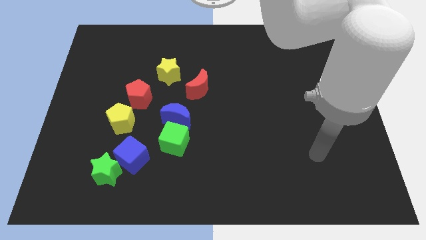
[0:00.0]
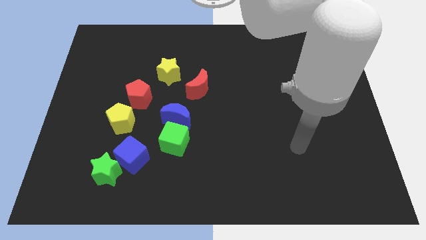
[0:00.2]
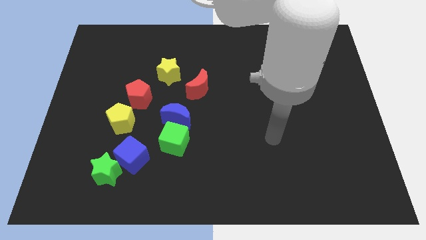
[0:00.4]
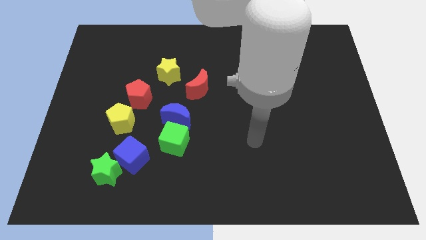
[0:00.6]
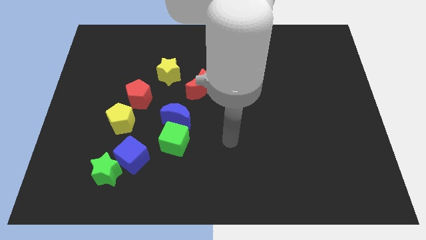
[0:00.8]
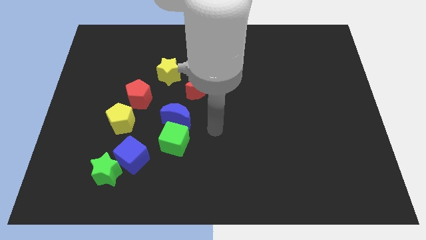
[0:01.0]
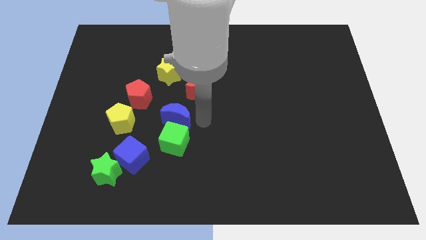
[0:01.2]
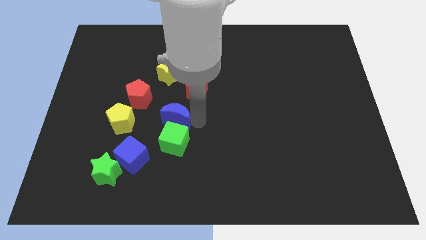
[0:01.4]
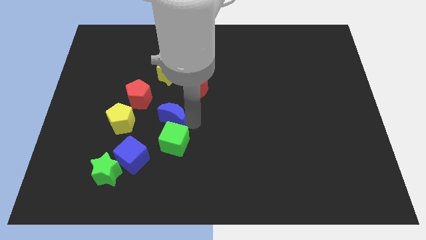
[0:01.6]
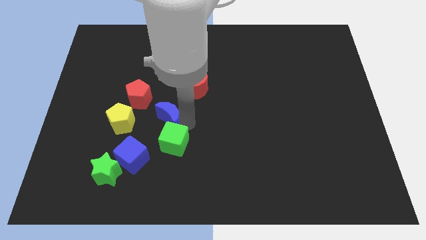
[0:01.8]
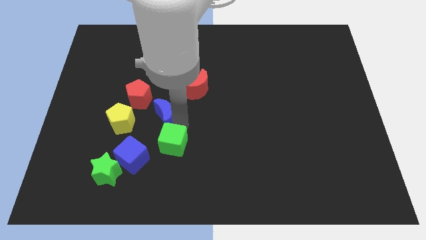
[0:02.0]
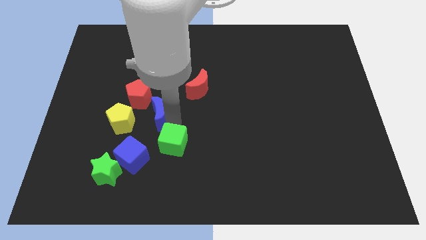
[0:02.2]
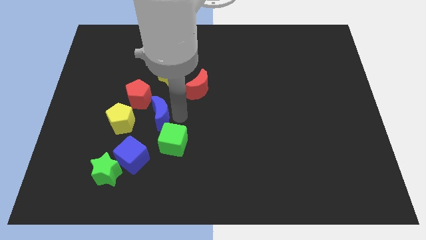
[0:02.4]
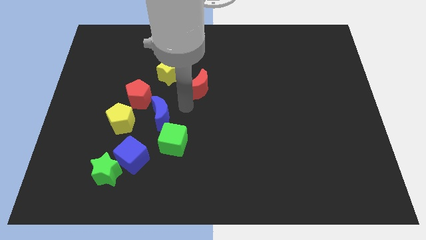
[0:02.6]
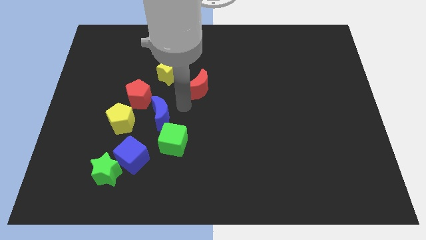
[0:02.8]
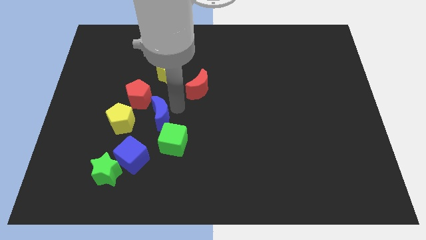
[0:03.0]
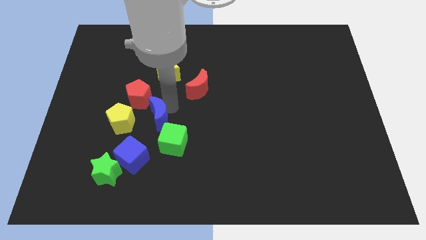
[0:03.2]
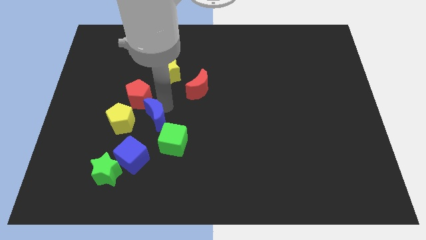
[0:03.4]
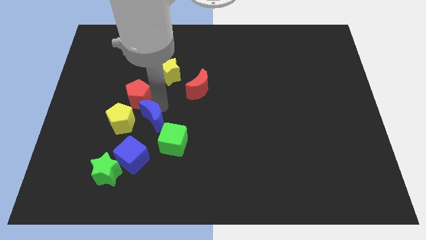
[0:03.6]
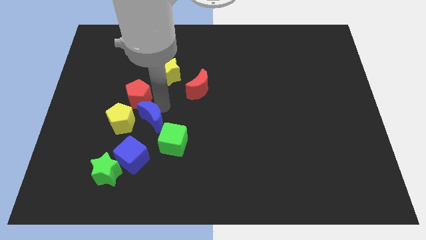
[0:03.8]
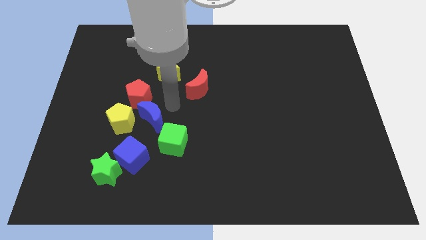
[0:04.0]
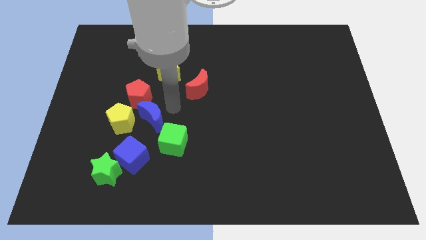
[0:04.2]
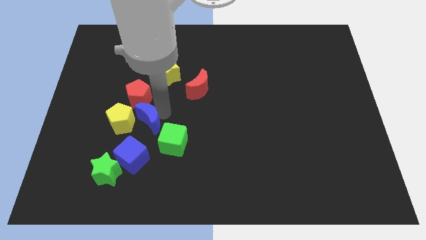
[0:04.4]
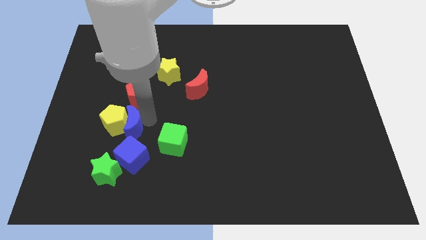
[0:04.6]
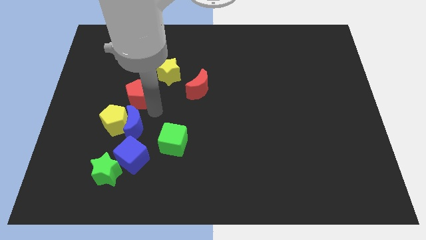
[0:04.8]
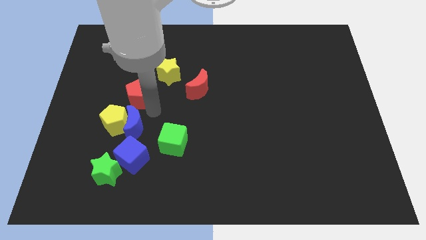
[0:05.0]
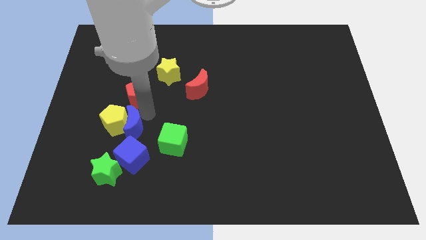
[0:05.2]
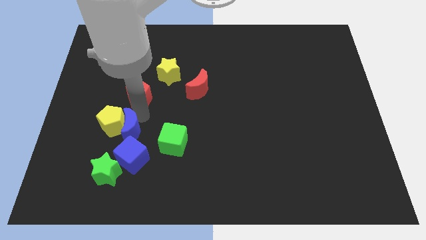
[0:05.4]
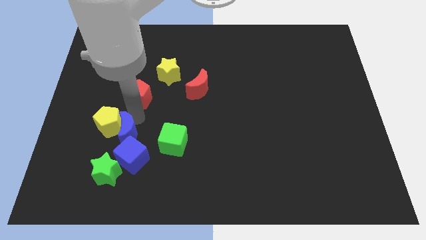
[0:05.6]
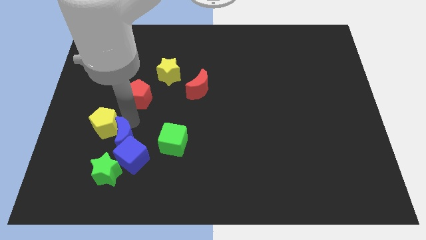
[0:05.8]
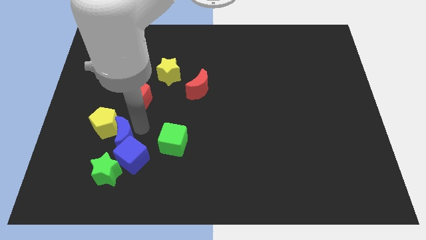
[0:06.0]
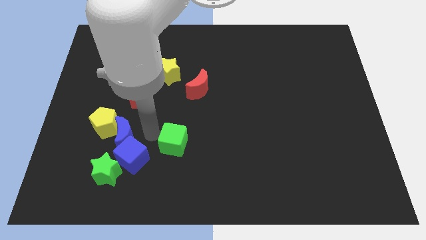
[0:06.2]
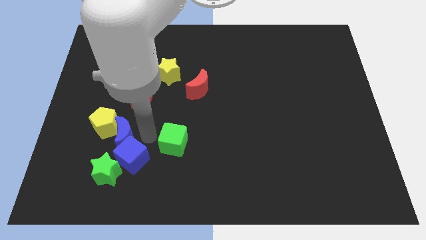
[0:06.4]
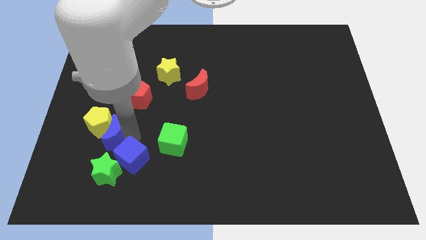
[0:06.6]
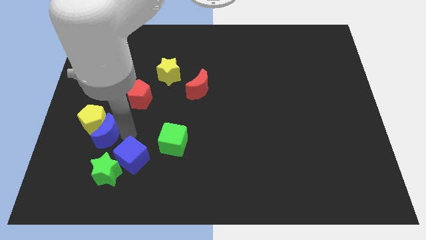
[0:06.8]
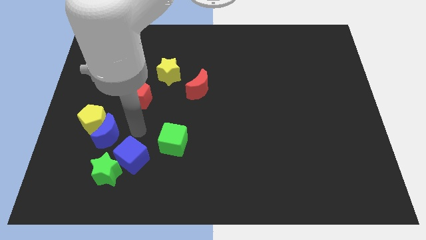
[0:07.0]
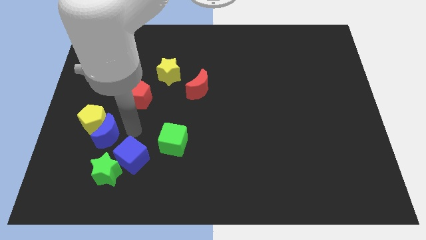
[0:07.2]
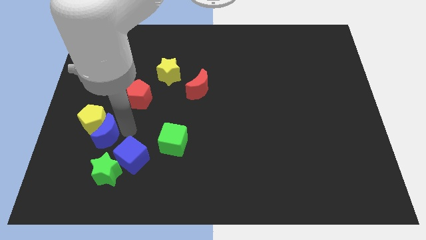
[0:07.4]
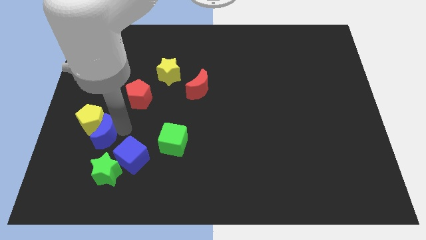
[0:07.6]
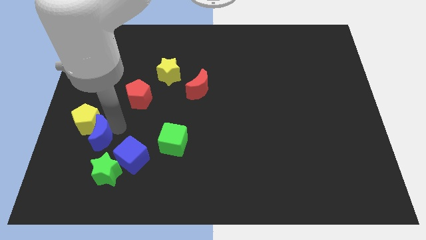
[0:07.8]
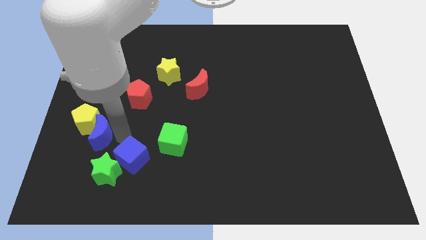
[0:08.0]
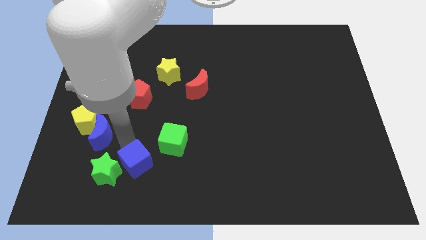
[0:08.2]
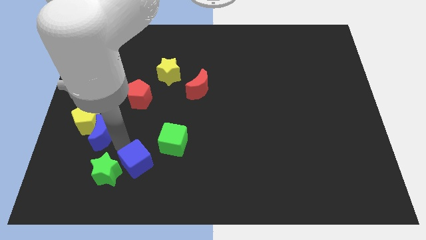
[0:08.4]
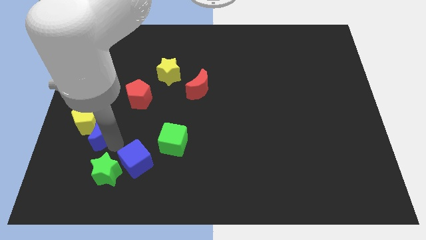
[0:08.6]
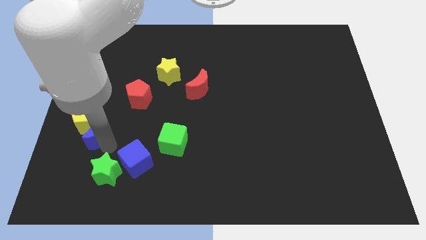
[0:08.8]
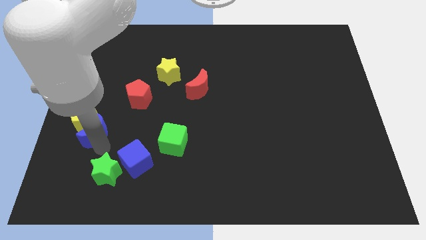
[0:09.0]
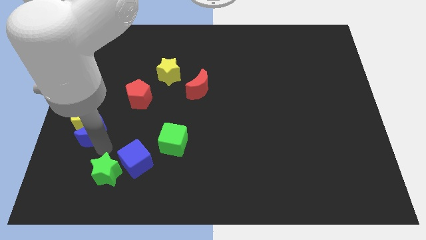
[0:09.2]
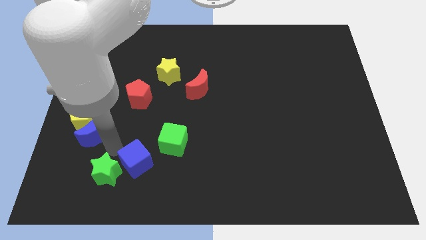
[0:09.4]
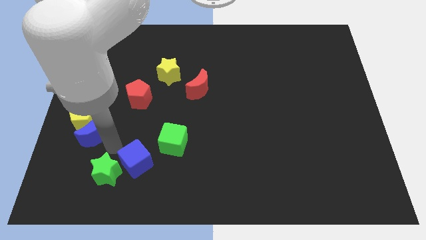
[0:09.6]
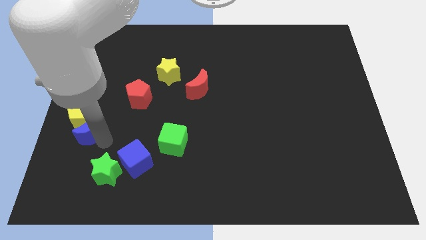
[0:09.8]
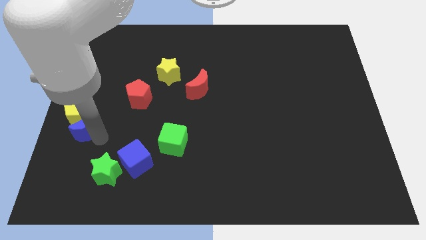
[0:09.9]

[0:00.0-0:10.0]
push the blue moon to the left side

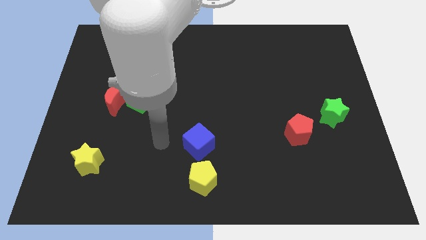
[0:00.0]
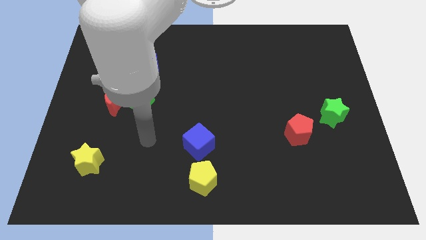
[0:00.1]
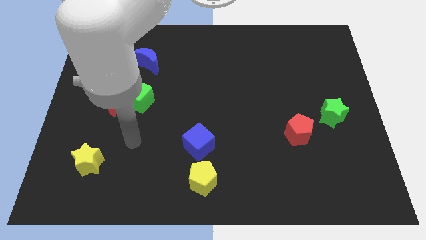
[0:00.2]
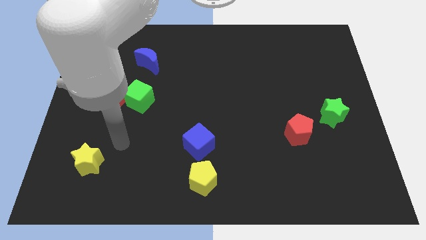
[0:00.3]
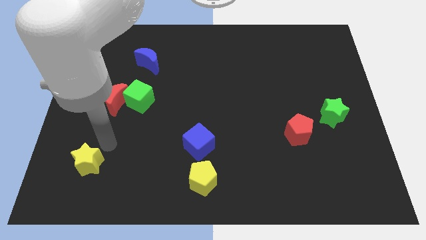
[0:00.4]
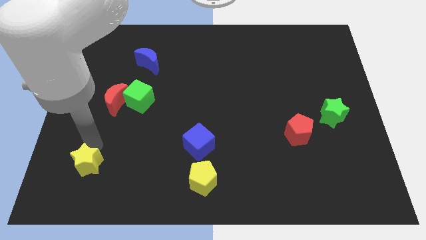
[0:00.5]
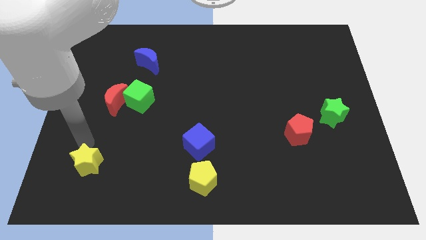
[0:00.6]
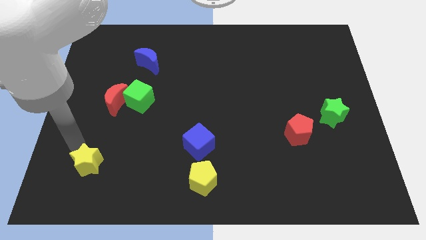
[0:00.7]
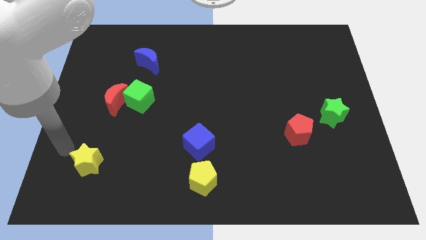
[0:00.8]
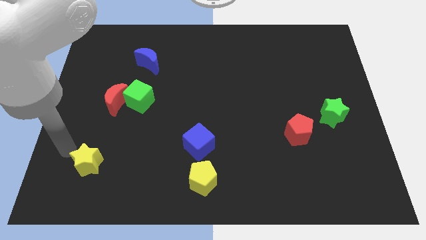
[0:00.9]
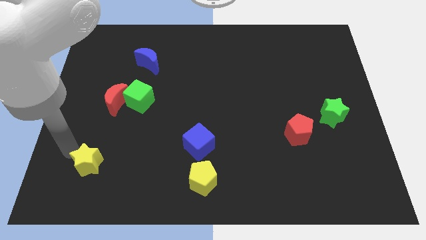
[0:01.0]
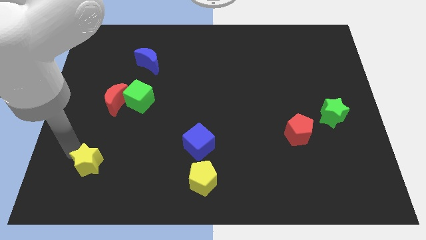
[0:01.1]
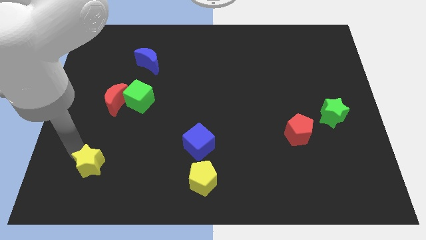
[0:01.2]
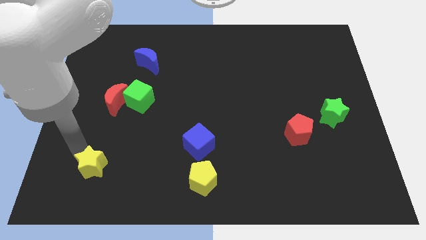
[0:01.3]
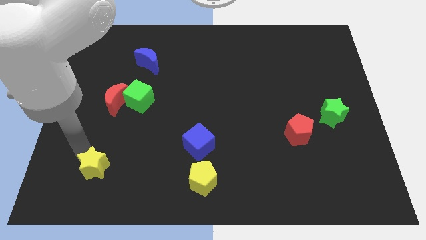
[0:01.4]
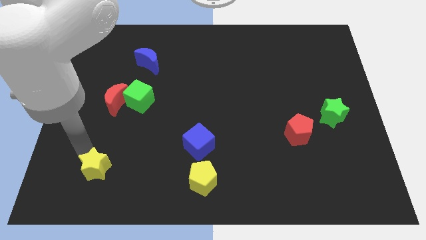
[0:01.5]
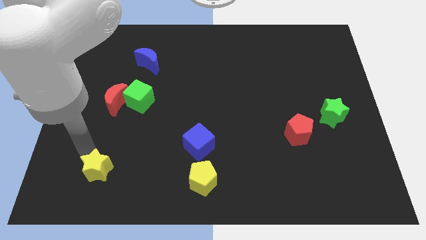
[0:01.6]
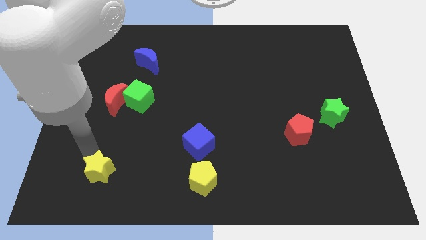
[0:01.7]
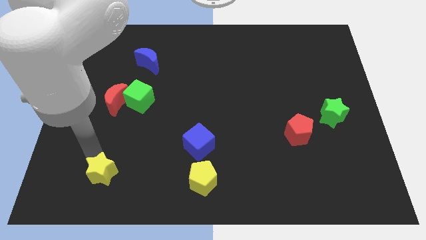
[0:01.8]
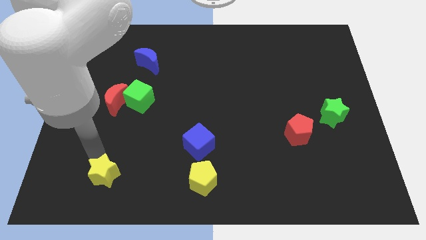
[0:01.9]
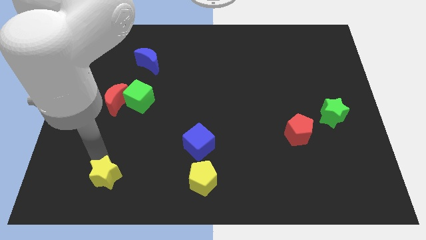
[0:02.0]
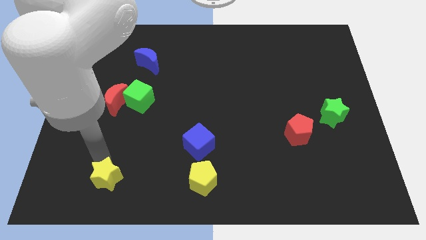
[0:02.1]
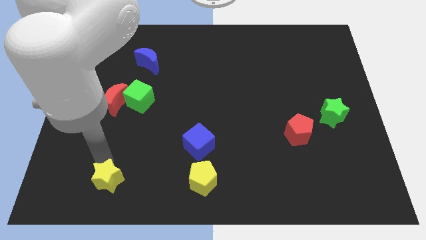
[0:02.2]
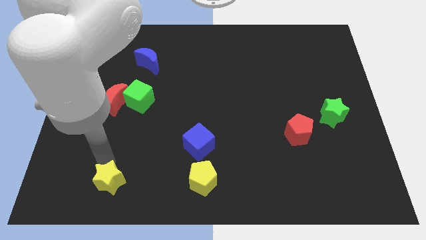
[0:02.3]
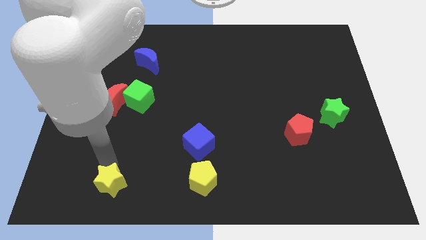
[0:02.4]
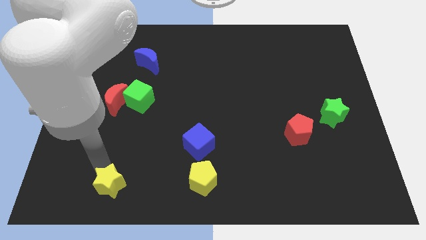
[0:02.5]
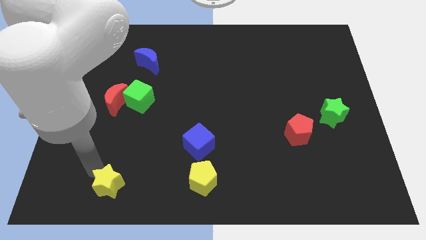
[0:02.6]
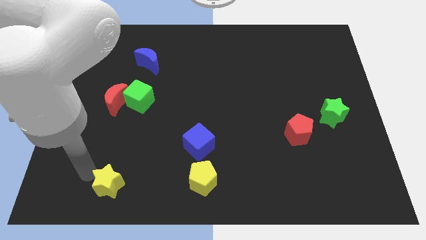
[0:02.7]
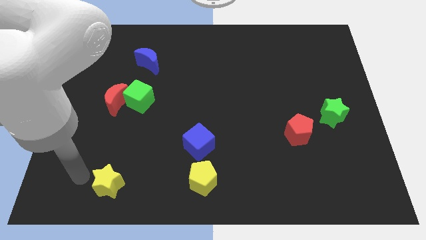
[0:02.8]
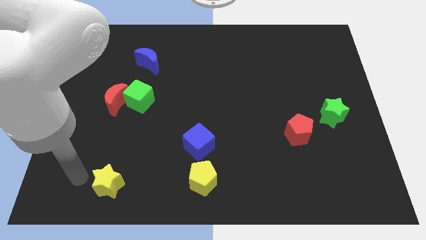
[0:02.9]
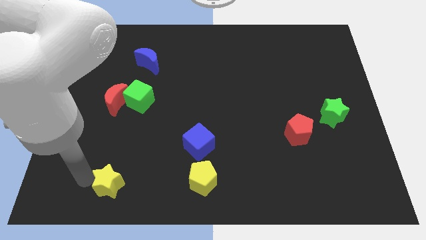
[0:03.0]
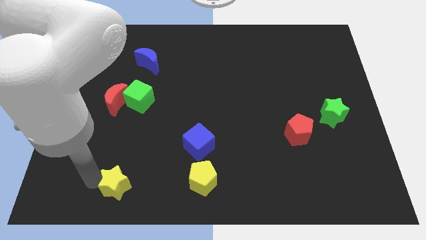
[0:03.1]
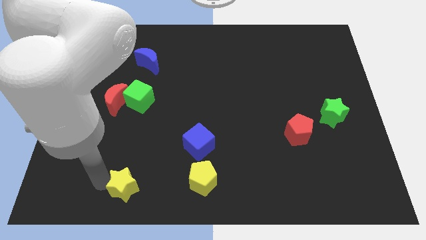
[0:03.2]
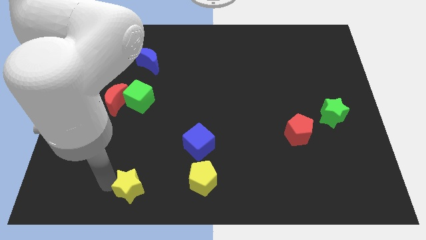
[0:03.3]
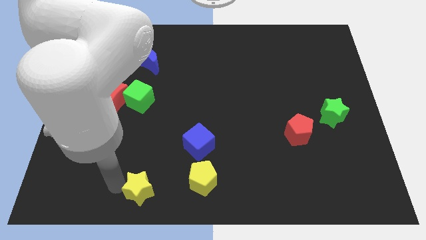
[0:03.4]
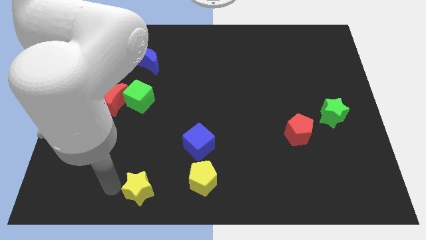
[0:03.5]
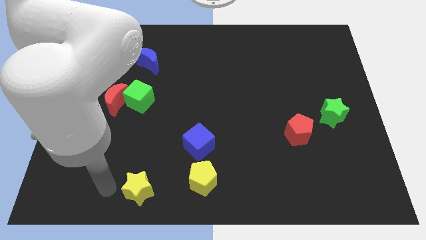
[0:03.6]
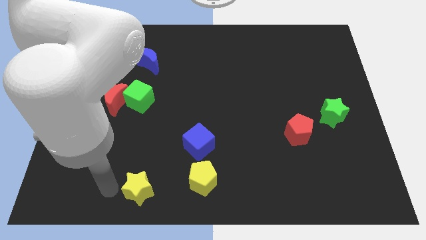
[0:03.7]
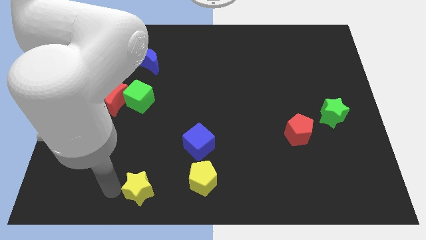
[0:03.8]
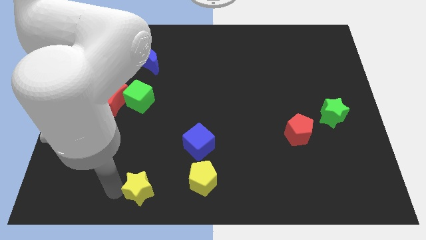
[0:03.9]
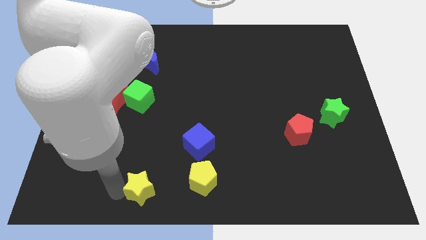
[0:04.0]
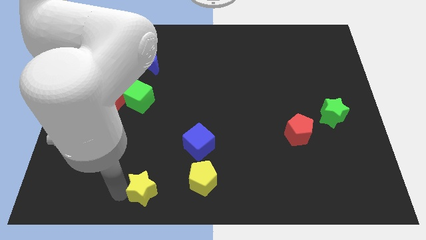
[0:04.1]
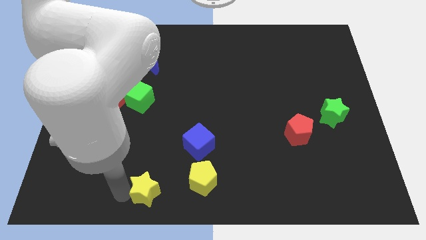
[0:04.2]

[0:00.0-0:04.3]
move the yellow star to the bottom side
